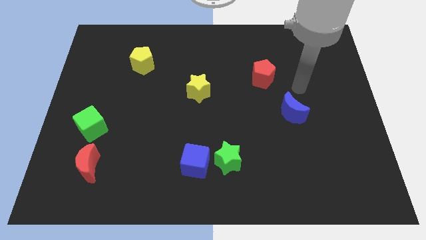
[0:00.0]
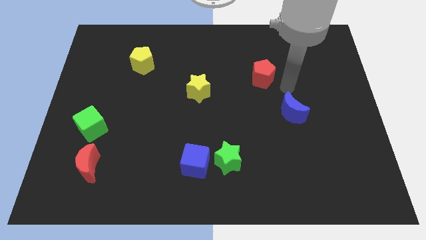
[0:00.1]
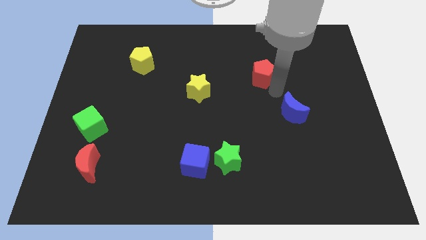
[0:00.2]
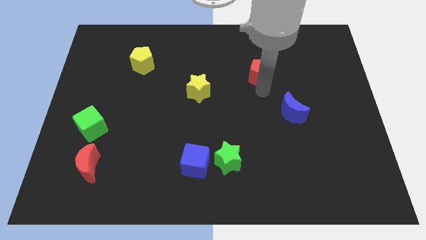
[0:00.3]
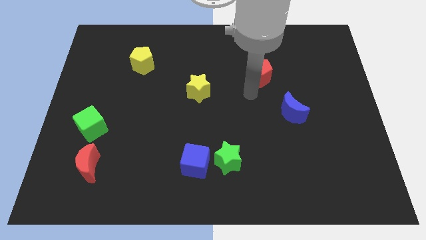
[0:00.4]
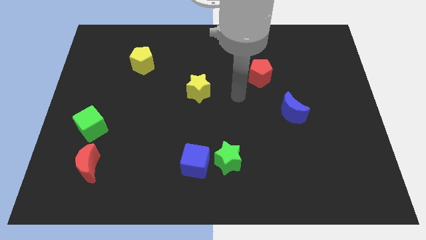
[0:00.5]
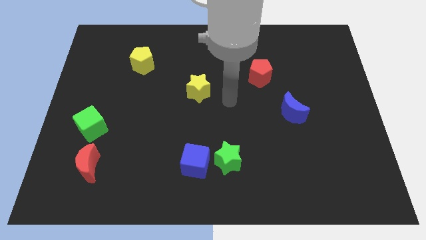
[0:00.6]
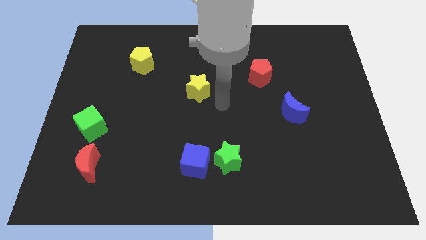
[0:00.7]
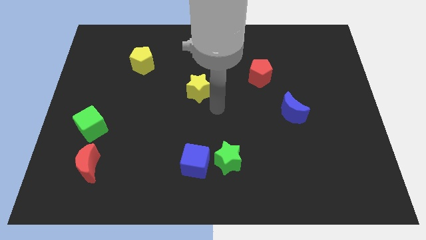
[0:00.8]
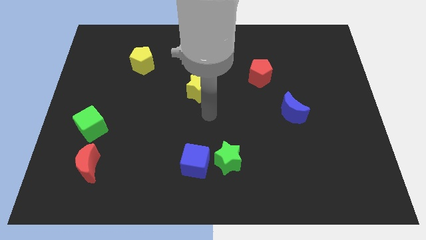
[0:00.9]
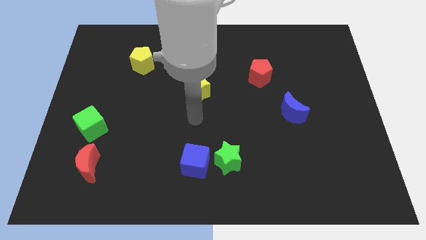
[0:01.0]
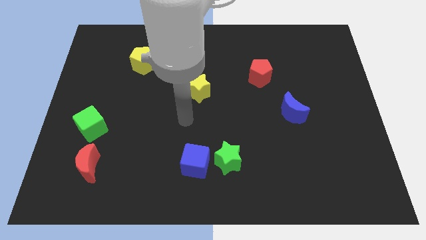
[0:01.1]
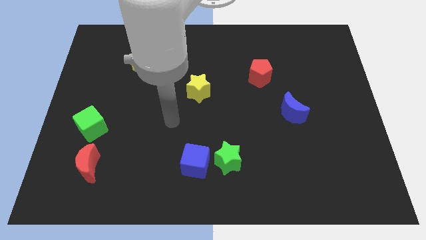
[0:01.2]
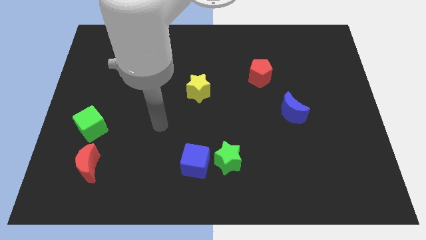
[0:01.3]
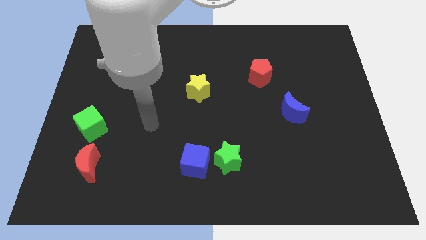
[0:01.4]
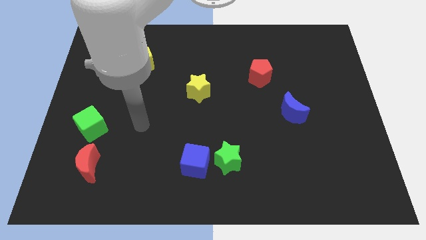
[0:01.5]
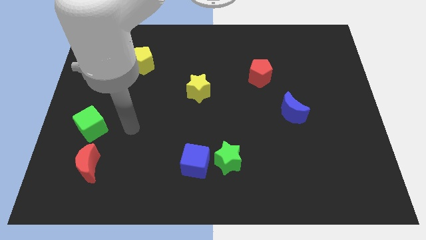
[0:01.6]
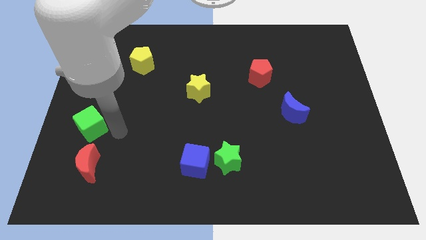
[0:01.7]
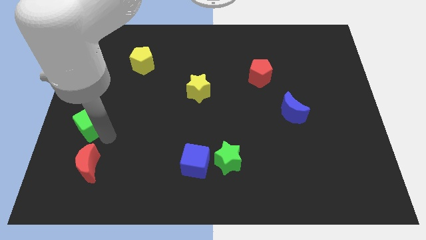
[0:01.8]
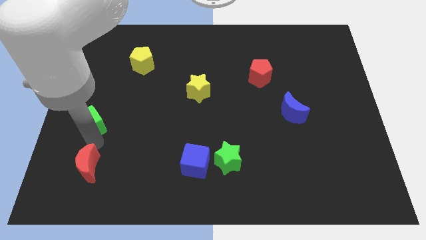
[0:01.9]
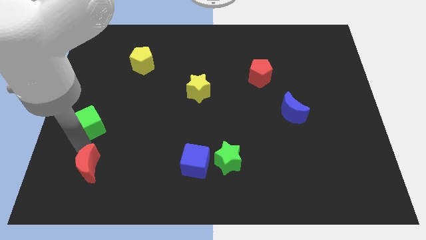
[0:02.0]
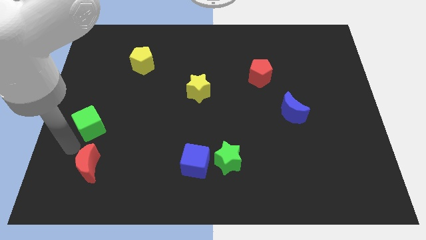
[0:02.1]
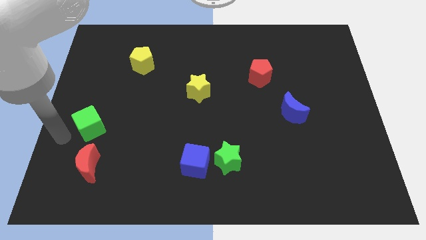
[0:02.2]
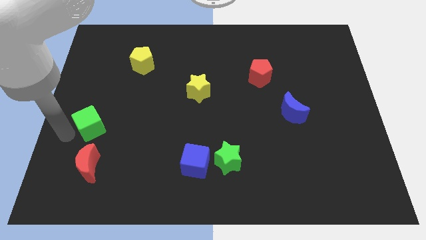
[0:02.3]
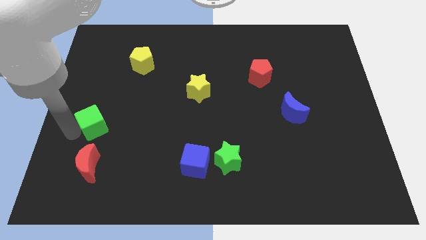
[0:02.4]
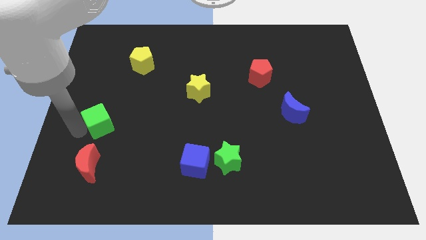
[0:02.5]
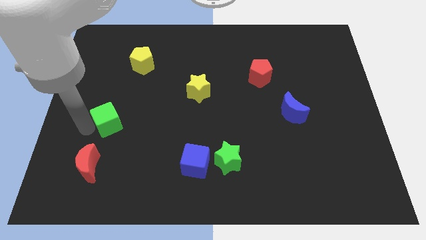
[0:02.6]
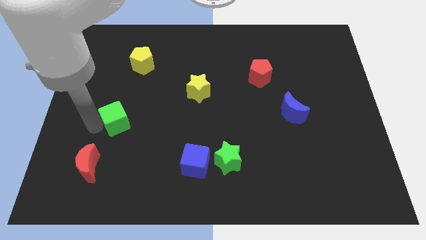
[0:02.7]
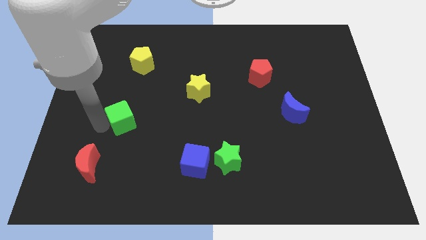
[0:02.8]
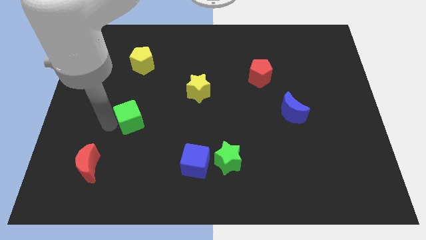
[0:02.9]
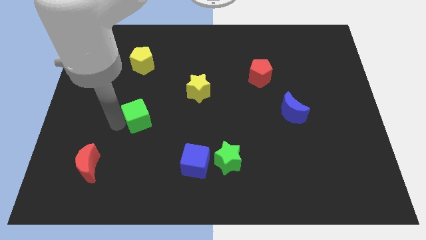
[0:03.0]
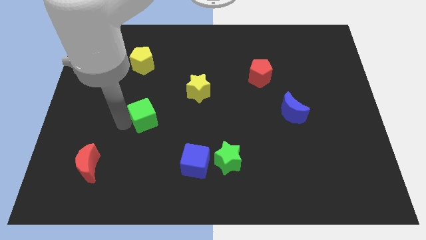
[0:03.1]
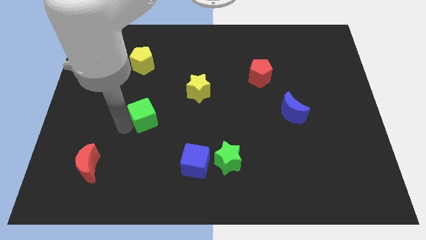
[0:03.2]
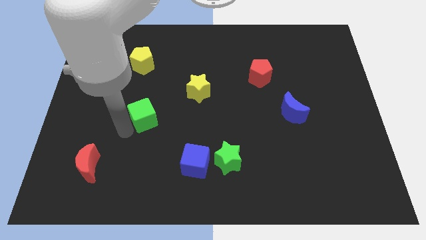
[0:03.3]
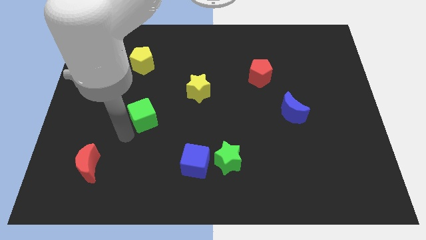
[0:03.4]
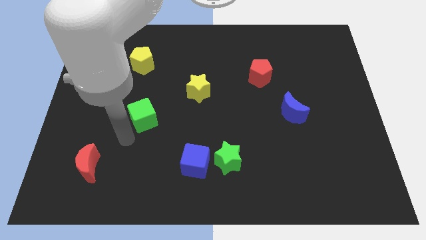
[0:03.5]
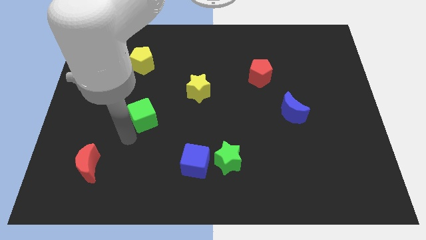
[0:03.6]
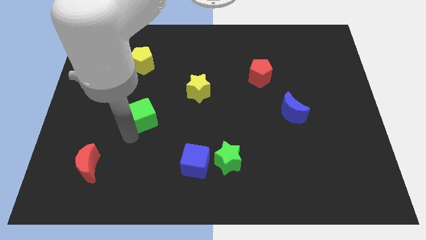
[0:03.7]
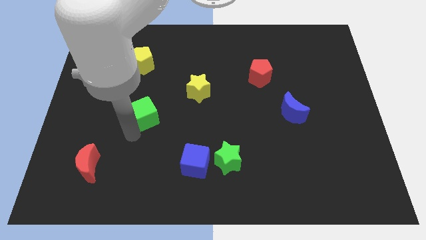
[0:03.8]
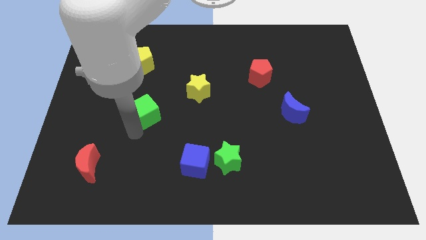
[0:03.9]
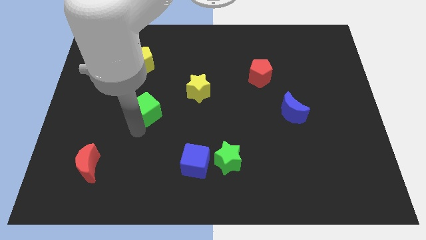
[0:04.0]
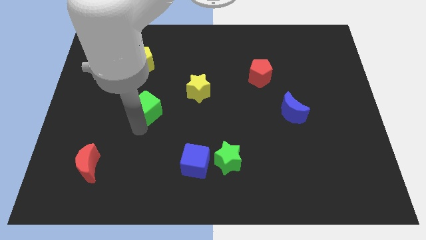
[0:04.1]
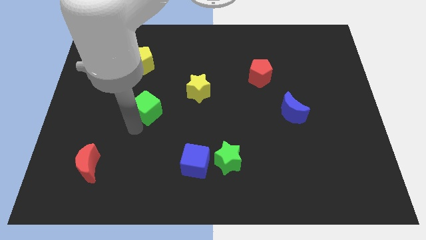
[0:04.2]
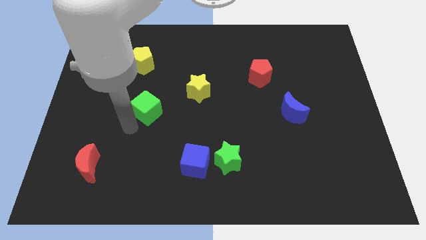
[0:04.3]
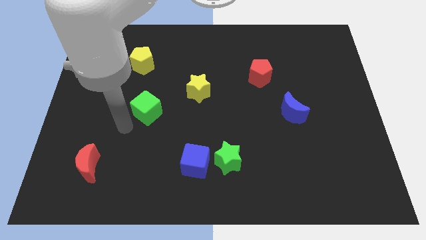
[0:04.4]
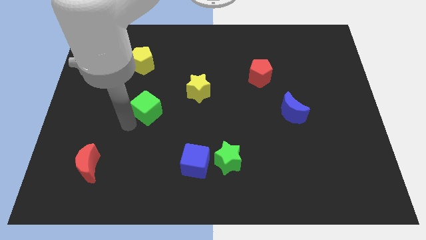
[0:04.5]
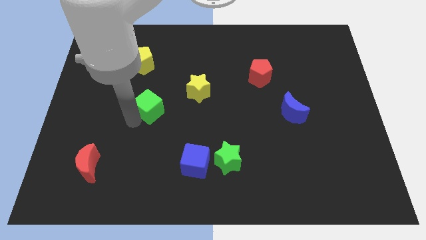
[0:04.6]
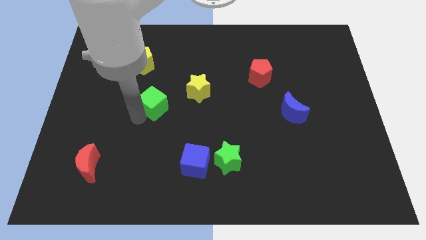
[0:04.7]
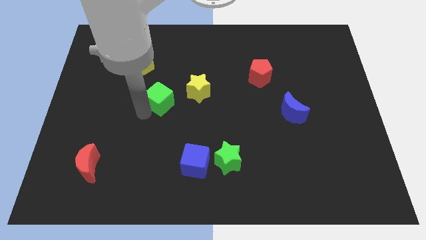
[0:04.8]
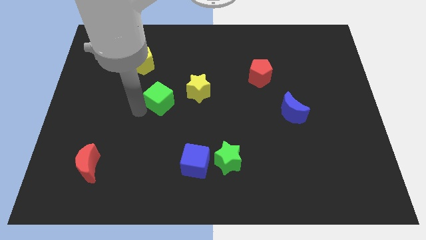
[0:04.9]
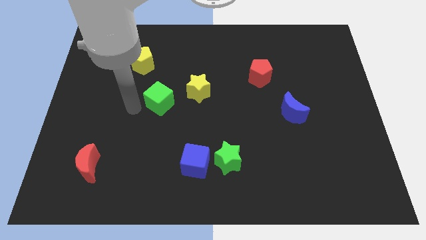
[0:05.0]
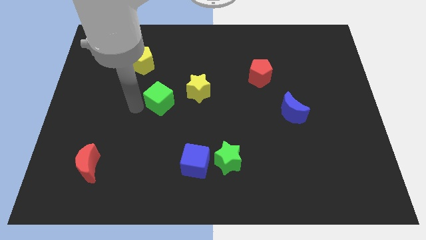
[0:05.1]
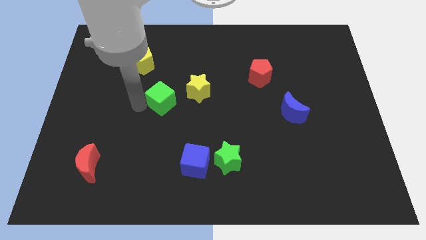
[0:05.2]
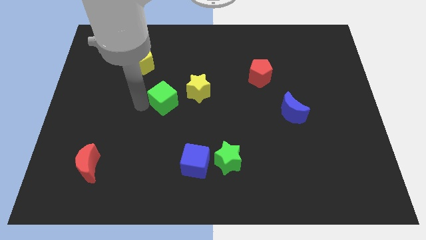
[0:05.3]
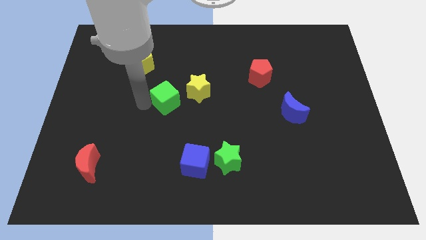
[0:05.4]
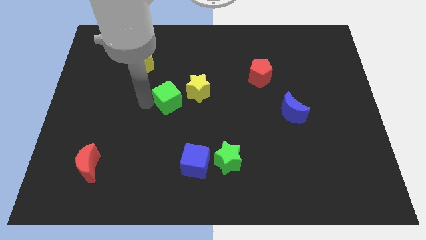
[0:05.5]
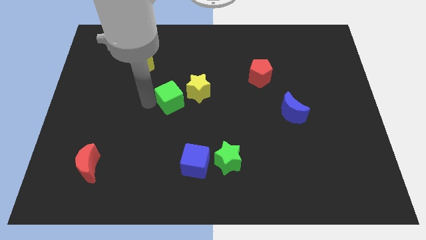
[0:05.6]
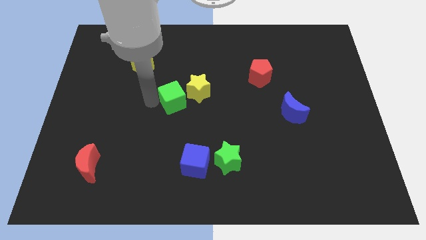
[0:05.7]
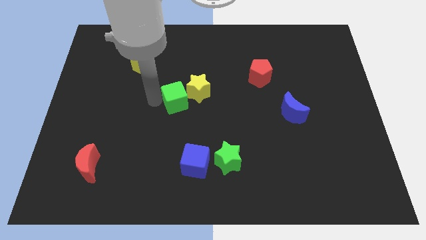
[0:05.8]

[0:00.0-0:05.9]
push the green cube close to the yellow star

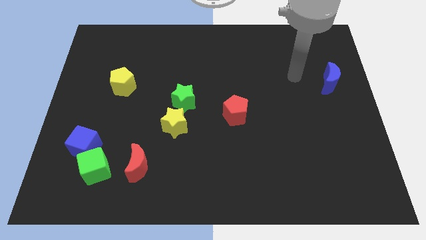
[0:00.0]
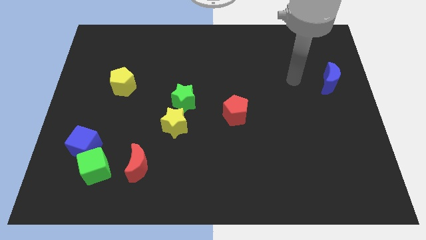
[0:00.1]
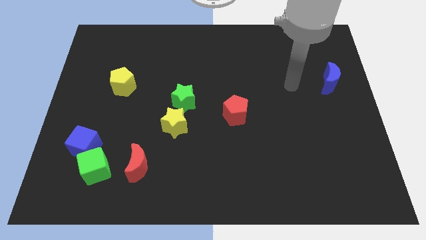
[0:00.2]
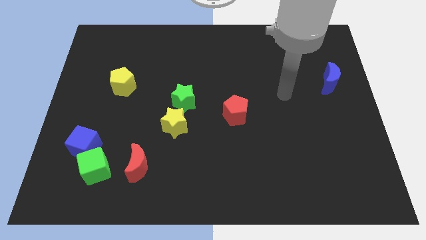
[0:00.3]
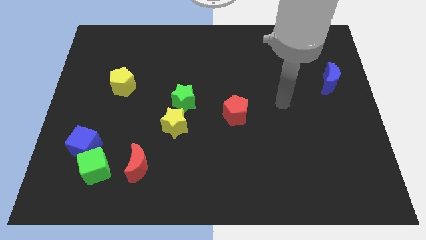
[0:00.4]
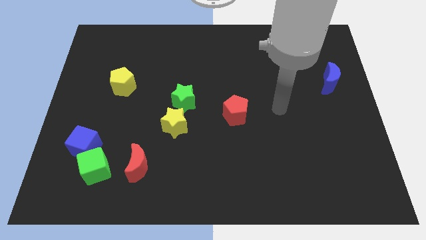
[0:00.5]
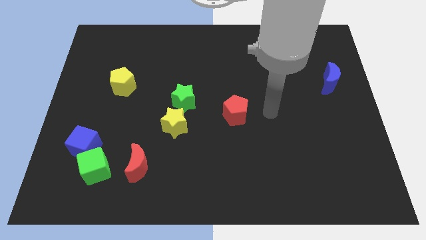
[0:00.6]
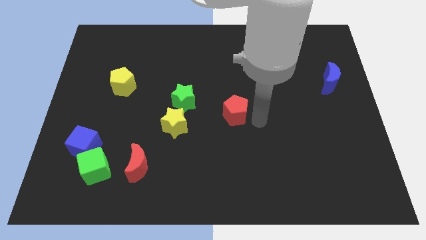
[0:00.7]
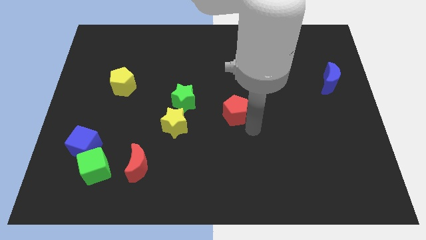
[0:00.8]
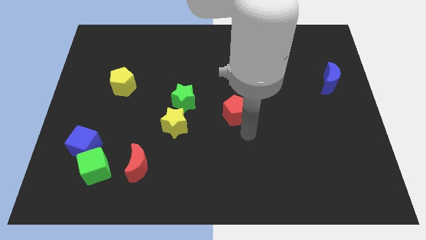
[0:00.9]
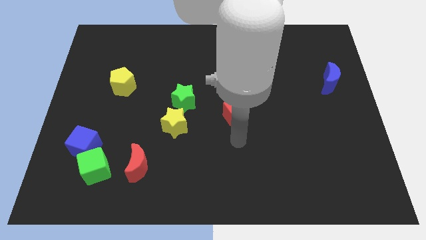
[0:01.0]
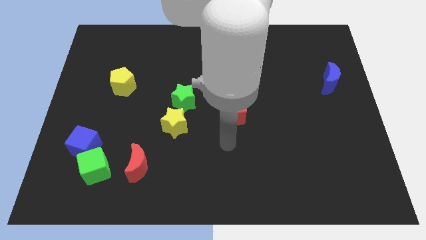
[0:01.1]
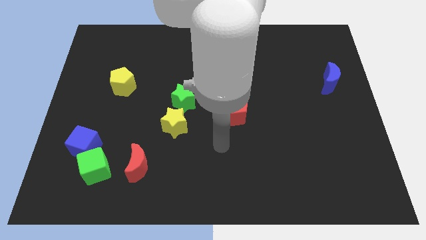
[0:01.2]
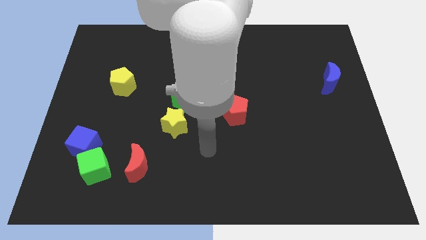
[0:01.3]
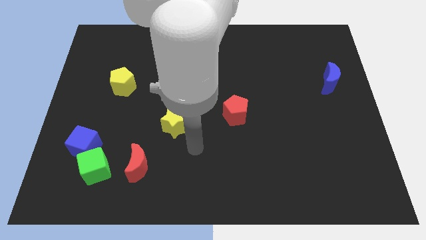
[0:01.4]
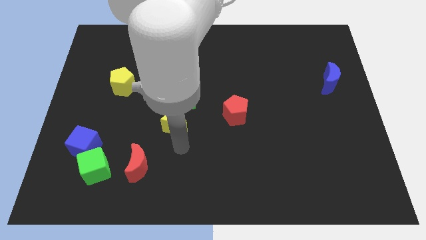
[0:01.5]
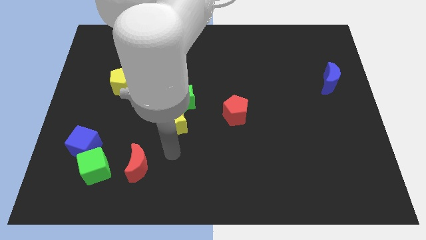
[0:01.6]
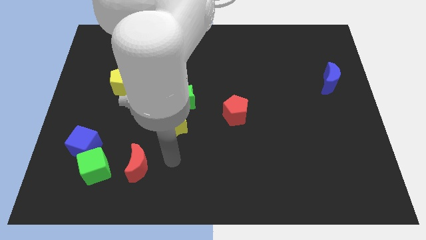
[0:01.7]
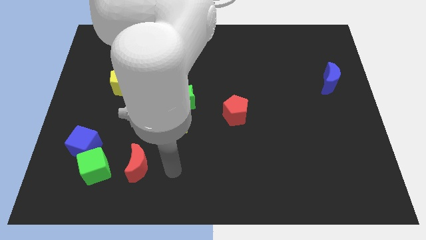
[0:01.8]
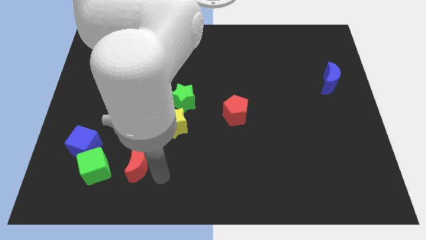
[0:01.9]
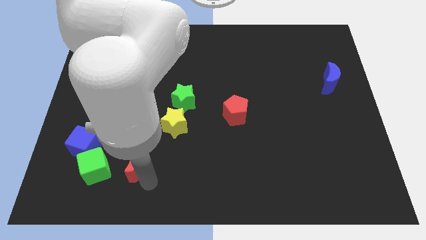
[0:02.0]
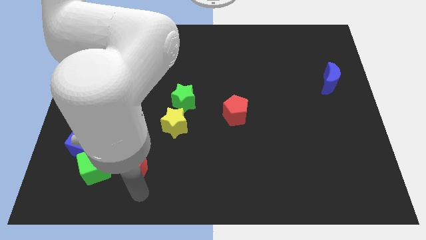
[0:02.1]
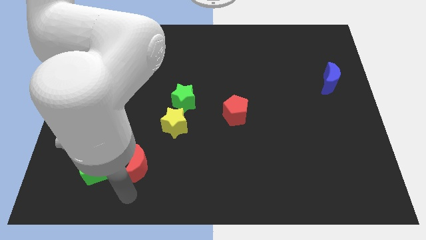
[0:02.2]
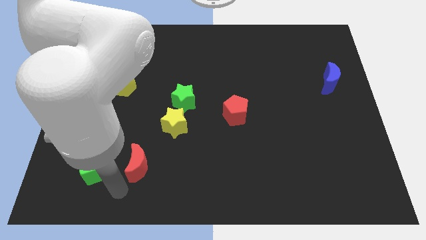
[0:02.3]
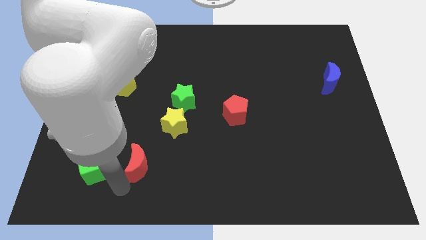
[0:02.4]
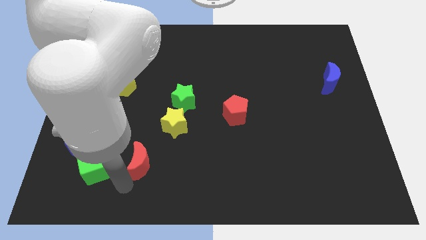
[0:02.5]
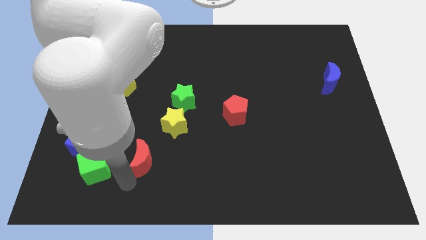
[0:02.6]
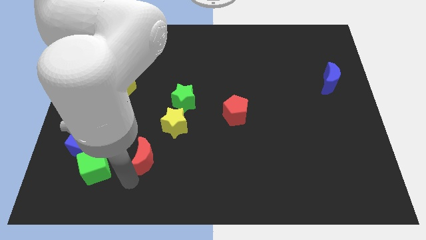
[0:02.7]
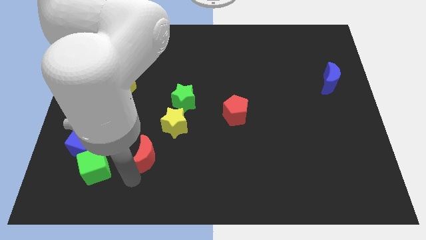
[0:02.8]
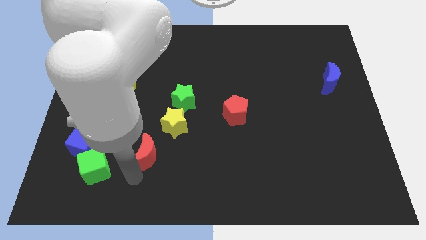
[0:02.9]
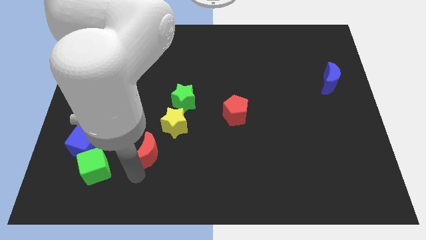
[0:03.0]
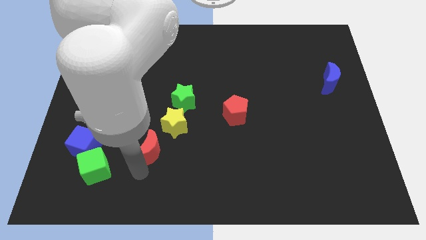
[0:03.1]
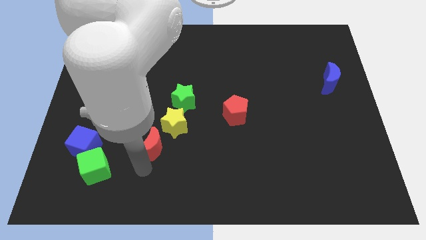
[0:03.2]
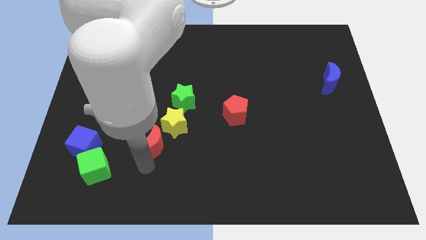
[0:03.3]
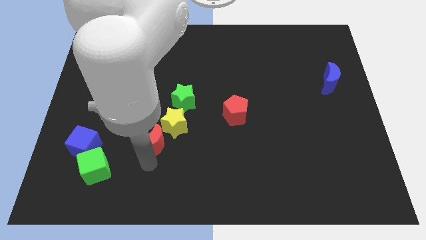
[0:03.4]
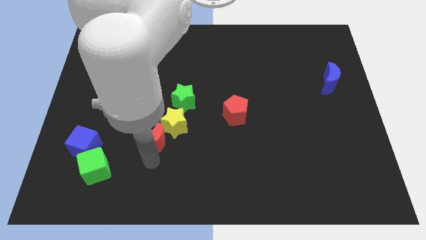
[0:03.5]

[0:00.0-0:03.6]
push the red moon close to the yellow star
